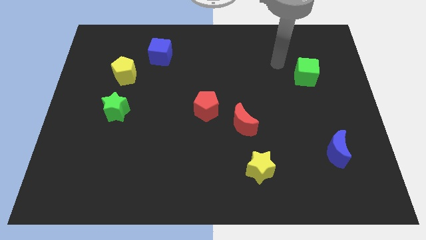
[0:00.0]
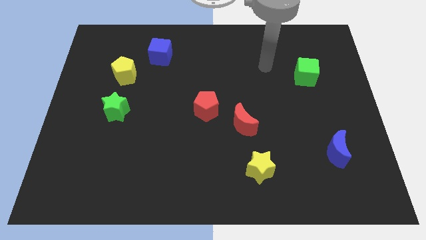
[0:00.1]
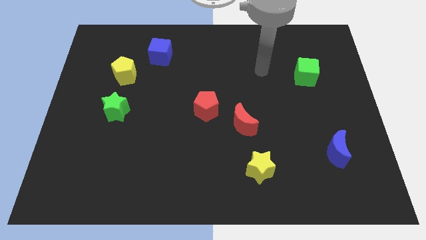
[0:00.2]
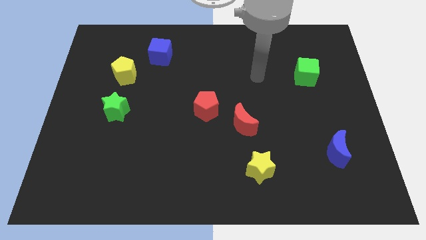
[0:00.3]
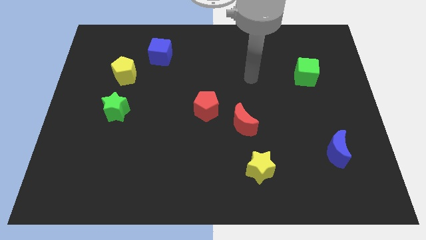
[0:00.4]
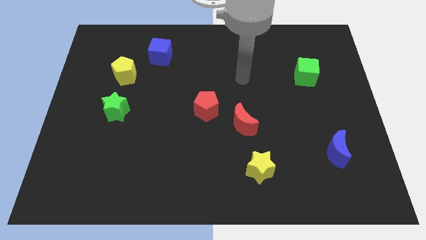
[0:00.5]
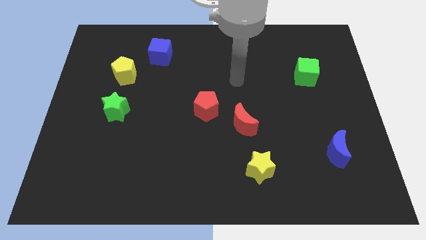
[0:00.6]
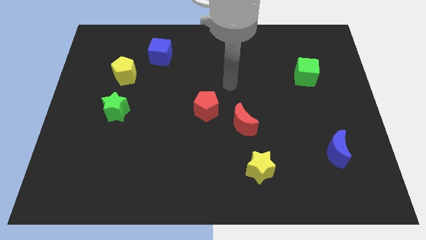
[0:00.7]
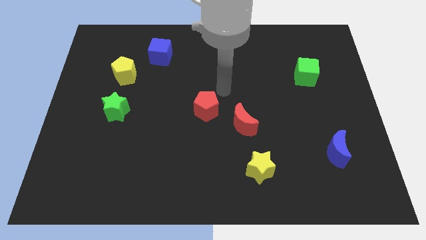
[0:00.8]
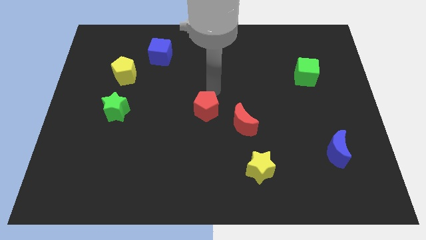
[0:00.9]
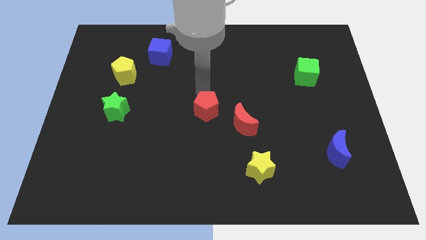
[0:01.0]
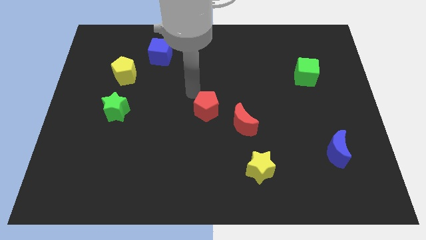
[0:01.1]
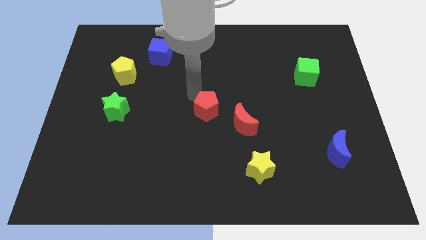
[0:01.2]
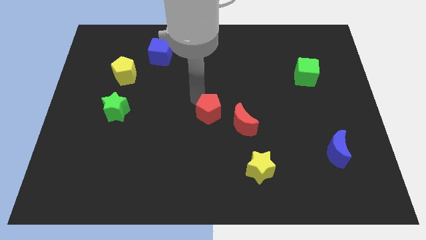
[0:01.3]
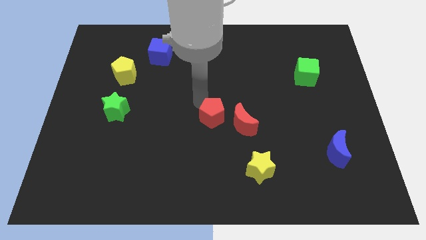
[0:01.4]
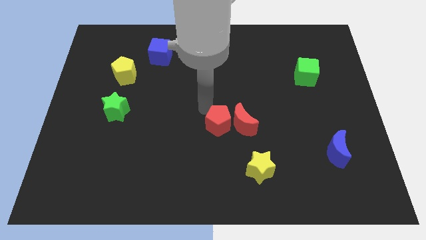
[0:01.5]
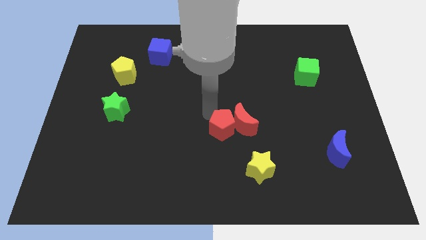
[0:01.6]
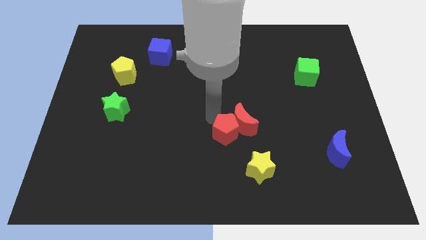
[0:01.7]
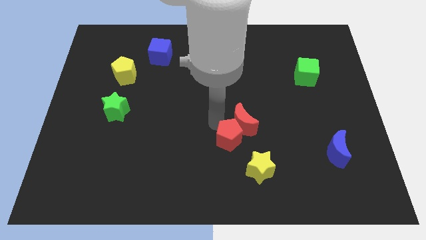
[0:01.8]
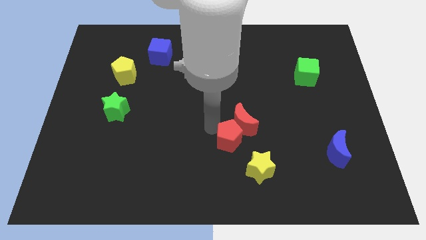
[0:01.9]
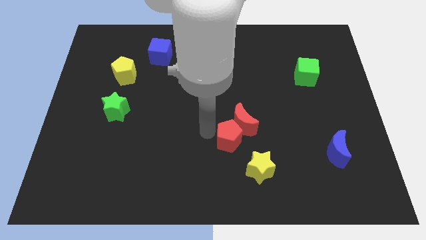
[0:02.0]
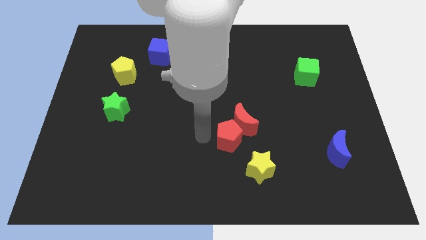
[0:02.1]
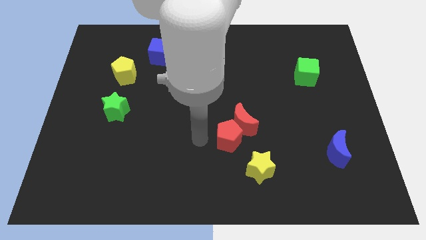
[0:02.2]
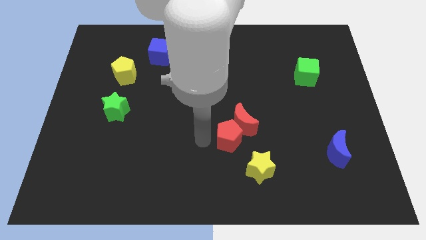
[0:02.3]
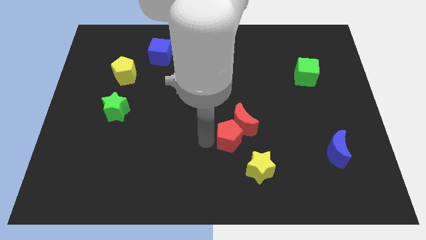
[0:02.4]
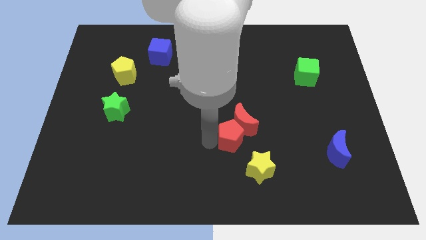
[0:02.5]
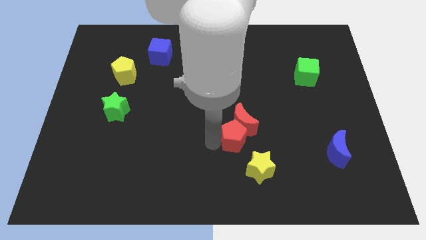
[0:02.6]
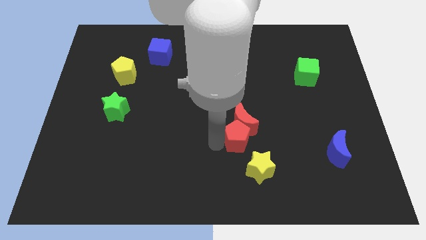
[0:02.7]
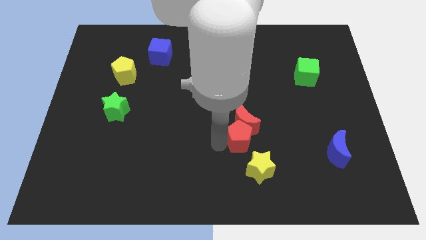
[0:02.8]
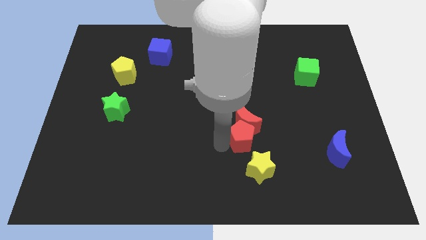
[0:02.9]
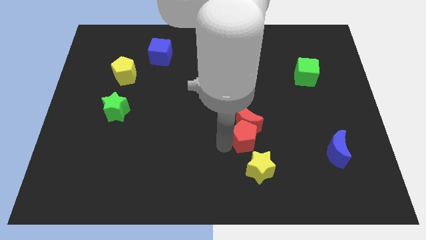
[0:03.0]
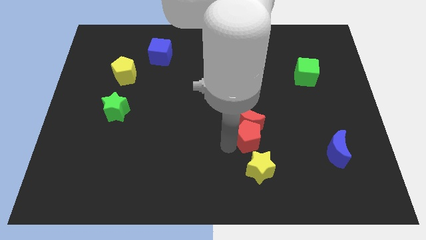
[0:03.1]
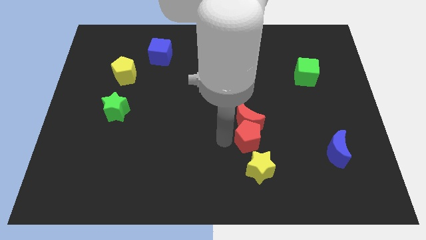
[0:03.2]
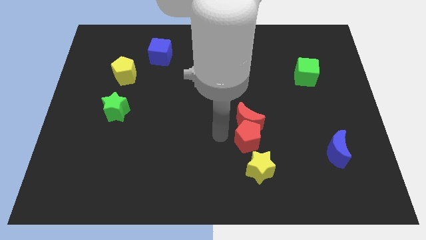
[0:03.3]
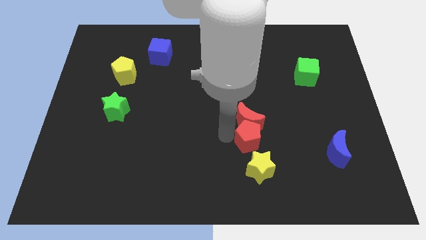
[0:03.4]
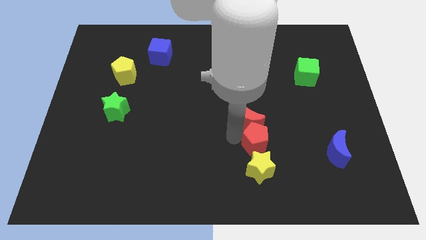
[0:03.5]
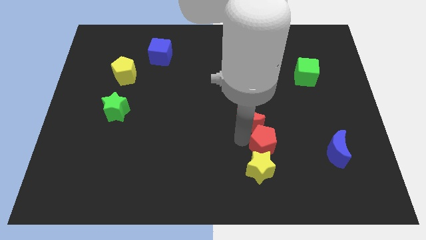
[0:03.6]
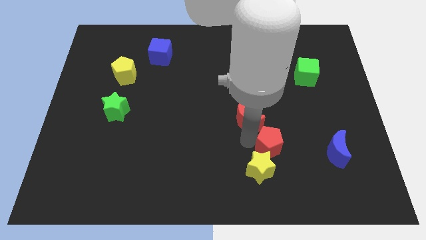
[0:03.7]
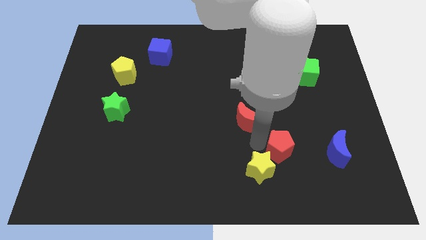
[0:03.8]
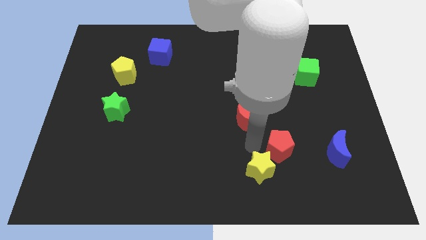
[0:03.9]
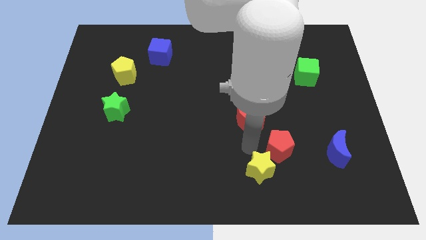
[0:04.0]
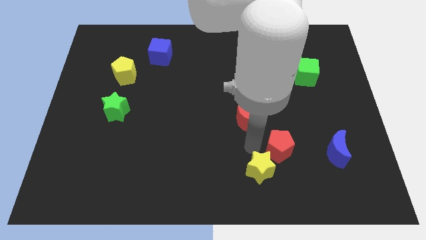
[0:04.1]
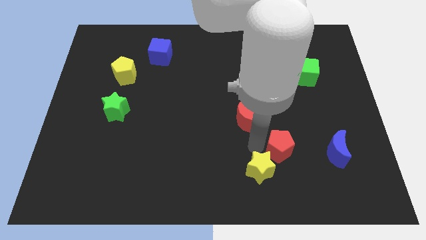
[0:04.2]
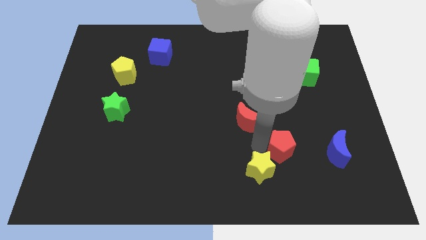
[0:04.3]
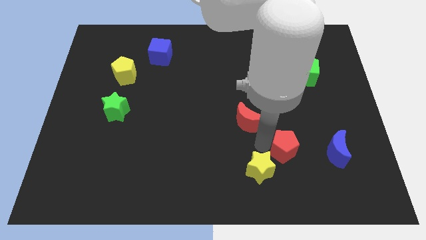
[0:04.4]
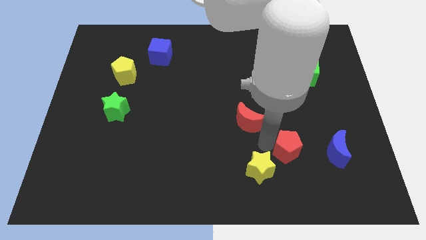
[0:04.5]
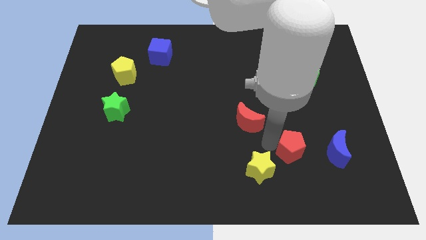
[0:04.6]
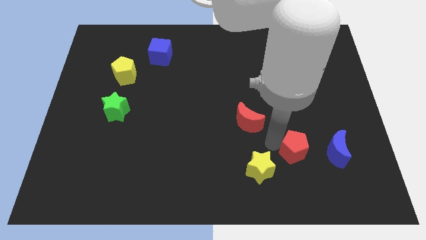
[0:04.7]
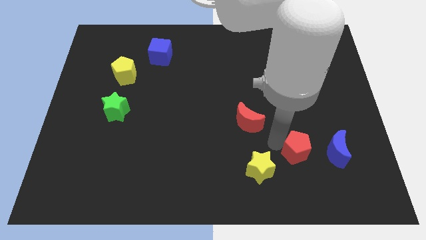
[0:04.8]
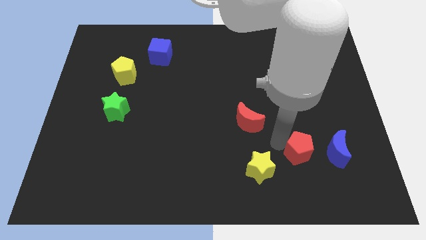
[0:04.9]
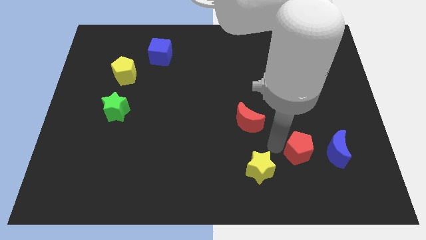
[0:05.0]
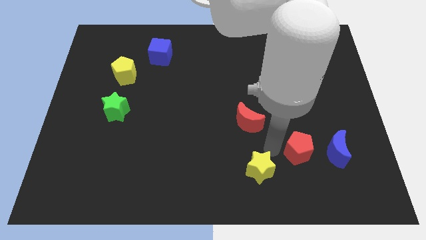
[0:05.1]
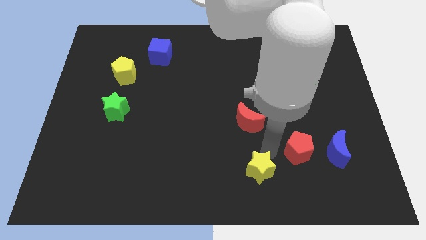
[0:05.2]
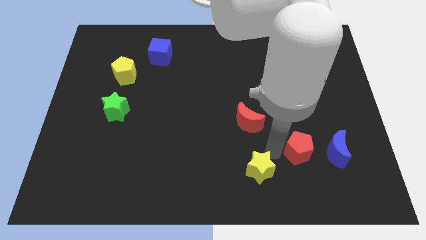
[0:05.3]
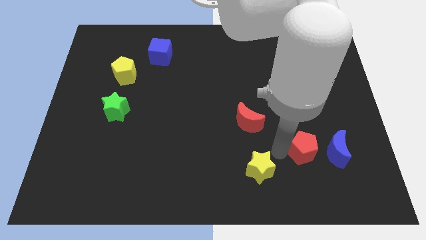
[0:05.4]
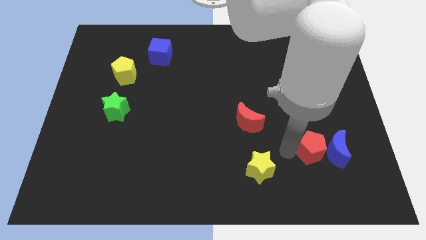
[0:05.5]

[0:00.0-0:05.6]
push the red pentagon towards the blue moon

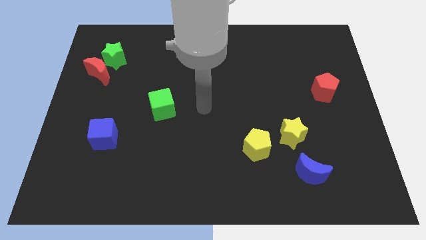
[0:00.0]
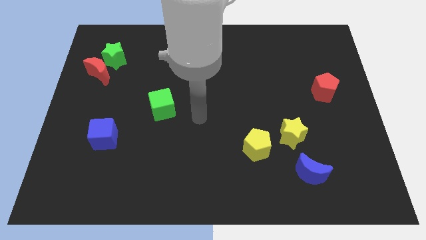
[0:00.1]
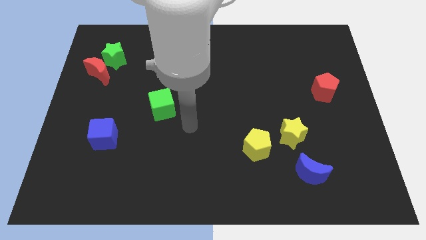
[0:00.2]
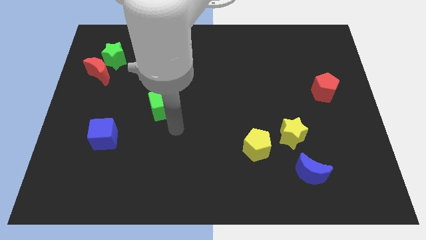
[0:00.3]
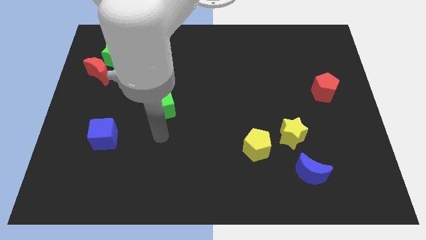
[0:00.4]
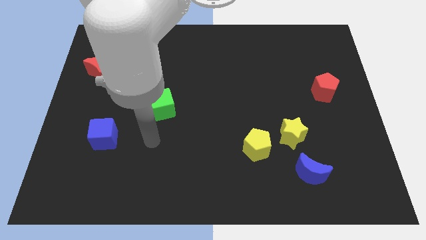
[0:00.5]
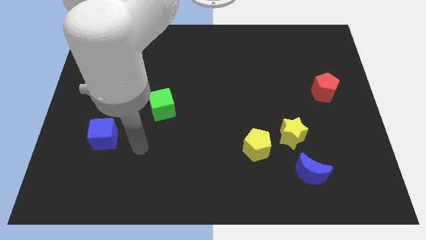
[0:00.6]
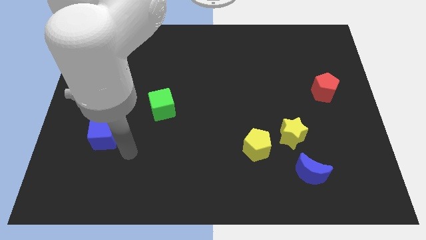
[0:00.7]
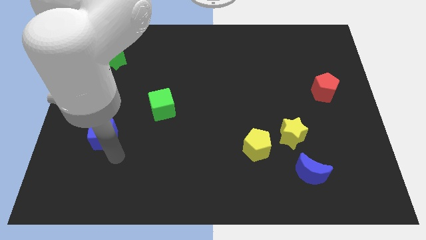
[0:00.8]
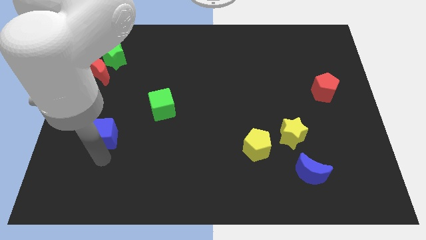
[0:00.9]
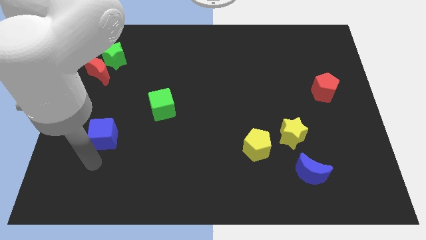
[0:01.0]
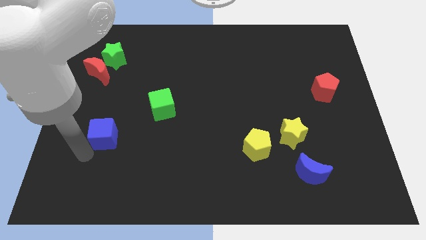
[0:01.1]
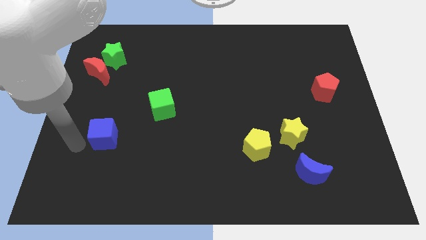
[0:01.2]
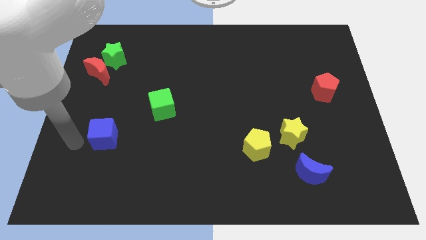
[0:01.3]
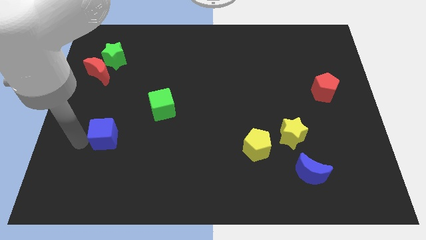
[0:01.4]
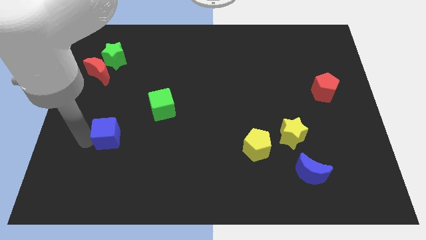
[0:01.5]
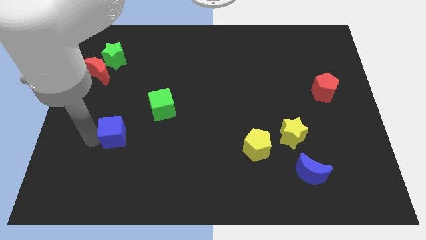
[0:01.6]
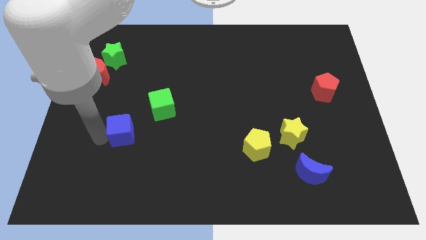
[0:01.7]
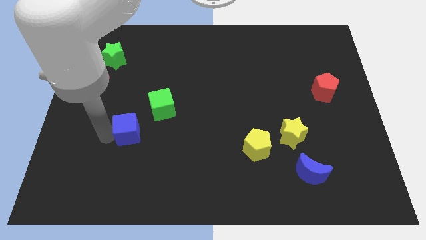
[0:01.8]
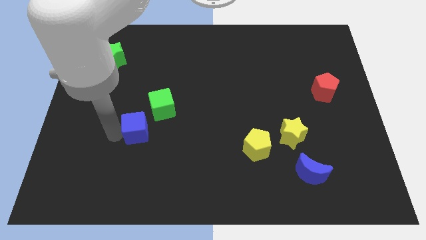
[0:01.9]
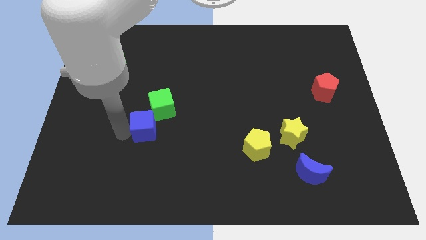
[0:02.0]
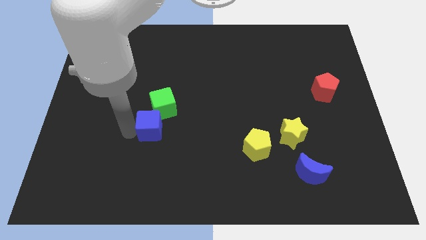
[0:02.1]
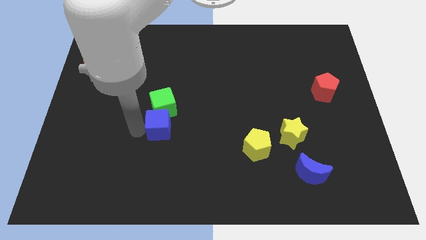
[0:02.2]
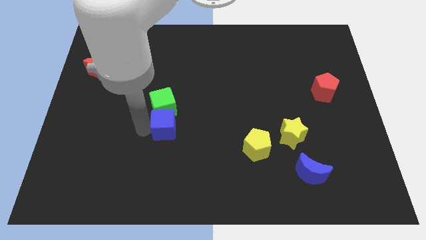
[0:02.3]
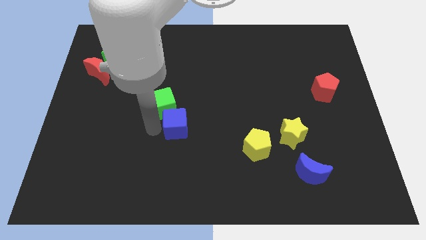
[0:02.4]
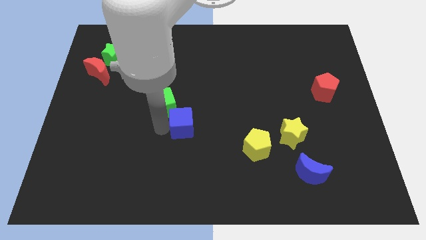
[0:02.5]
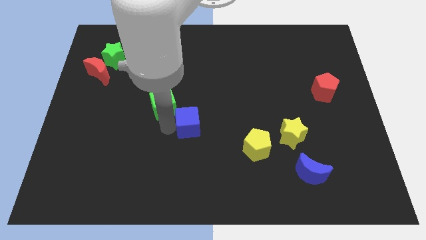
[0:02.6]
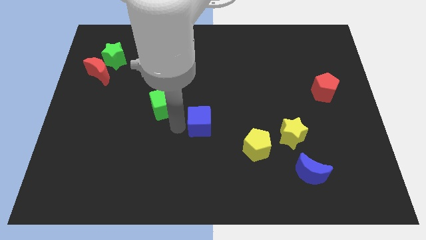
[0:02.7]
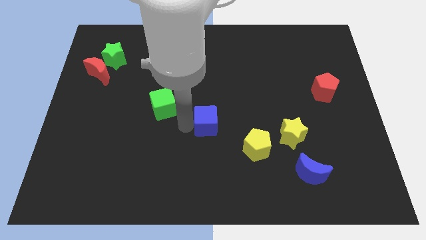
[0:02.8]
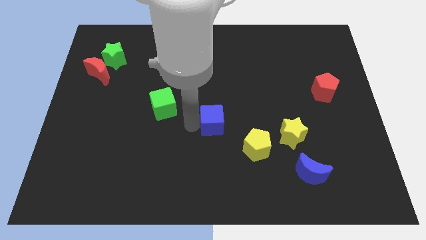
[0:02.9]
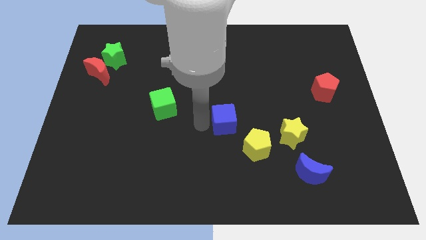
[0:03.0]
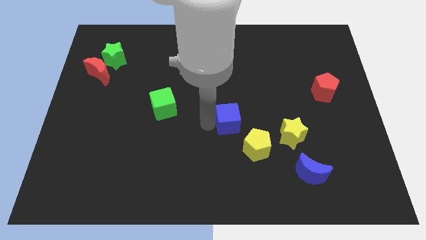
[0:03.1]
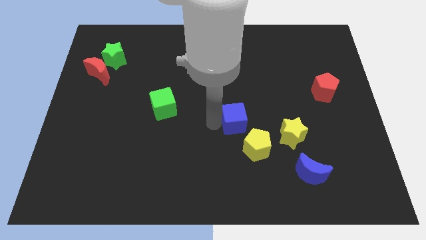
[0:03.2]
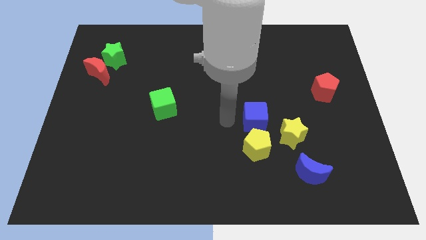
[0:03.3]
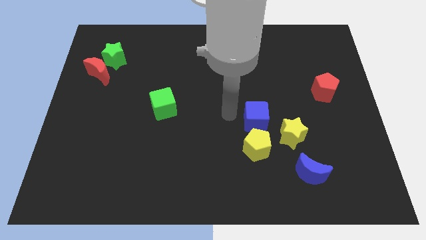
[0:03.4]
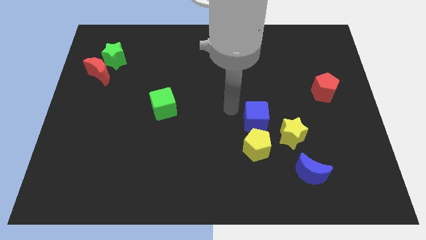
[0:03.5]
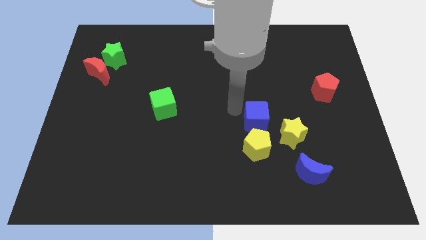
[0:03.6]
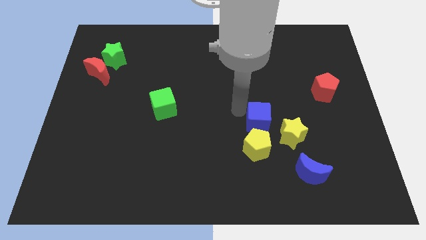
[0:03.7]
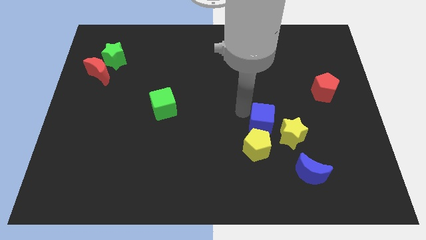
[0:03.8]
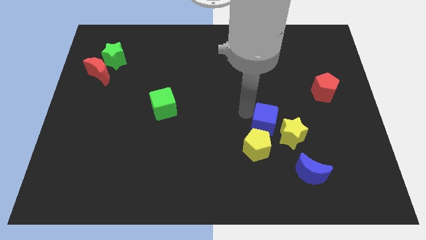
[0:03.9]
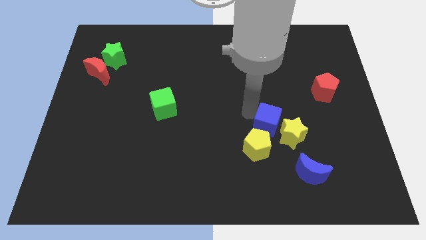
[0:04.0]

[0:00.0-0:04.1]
push the blue cube towards the yellow star
